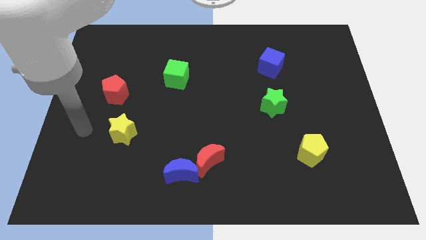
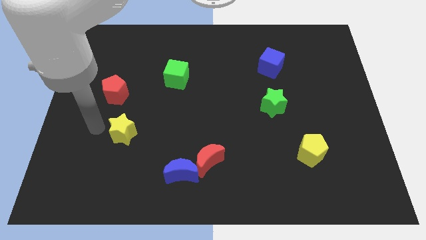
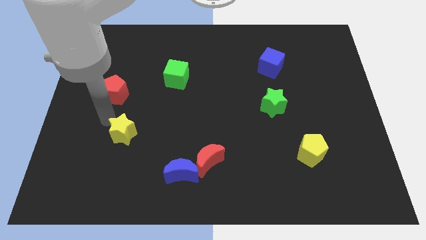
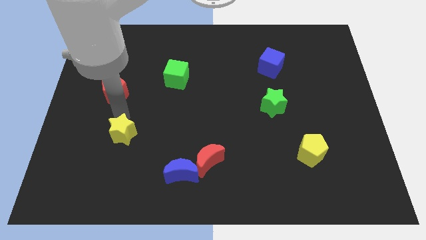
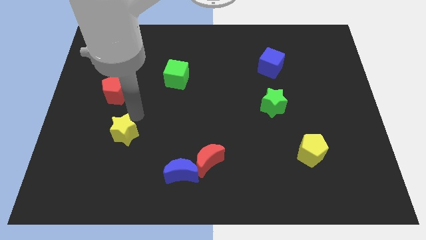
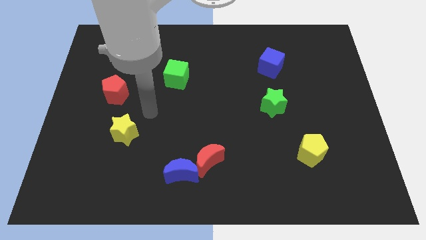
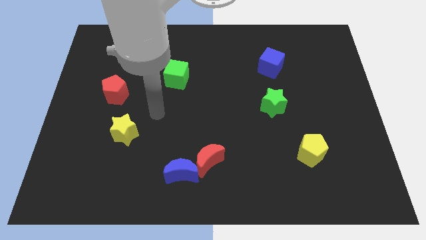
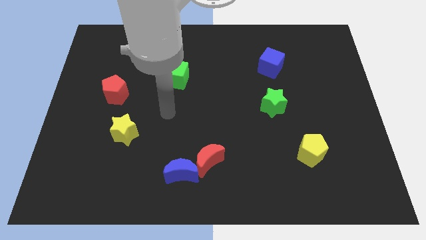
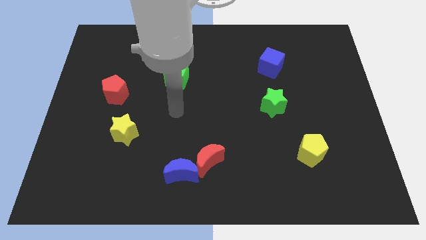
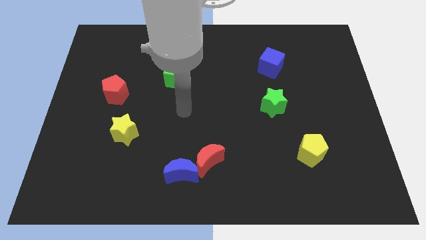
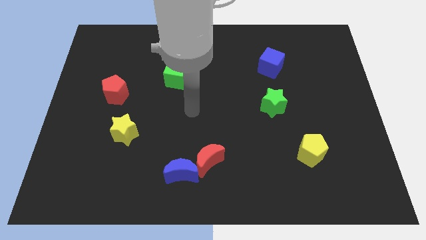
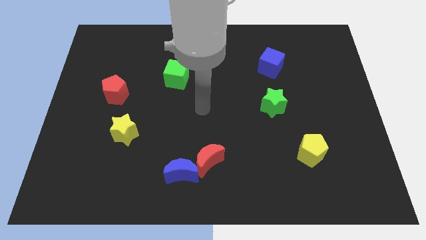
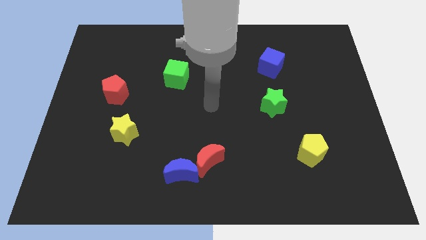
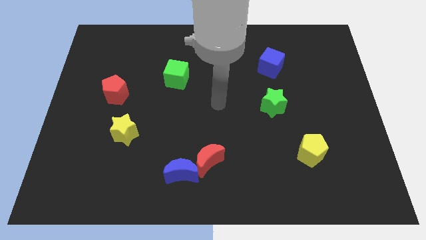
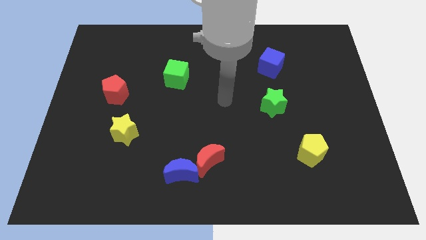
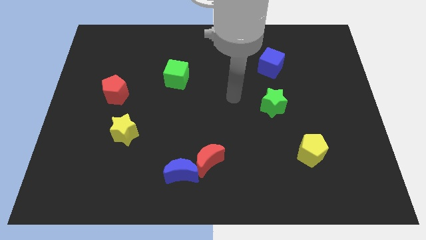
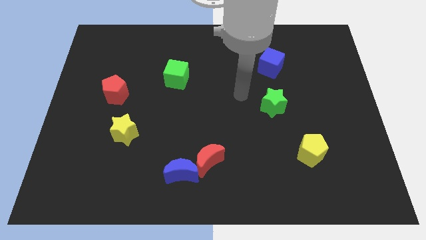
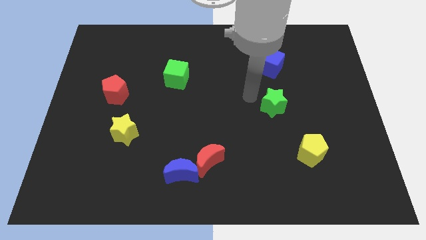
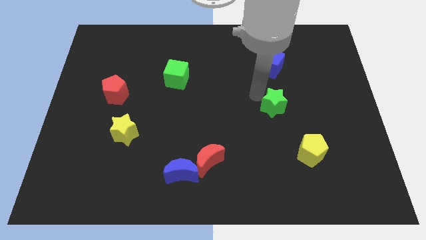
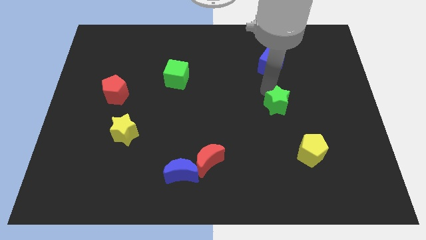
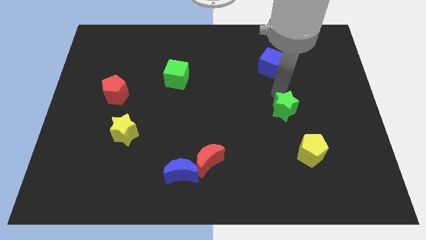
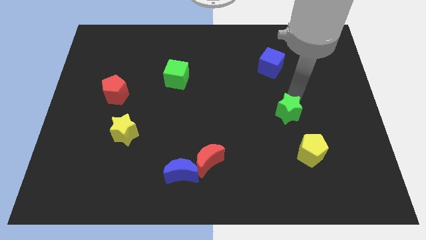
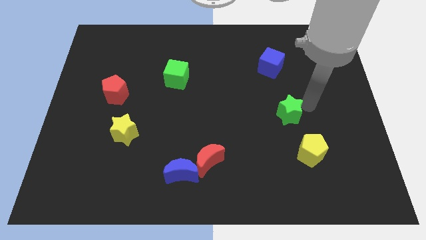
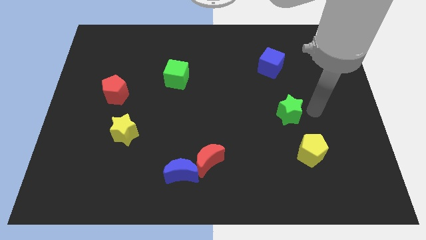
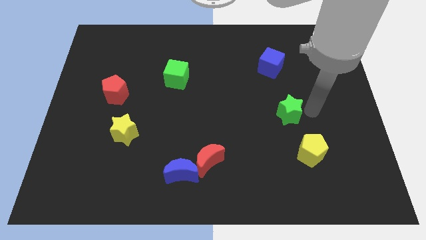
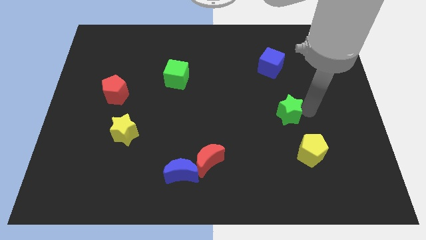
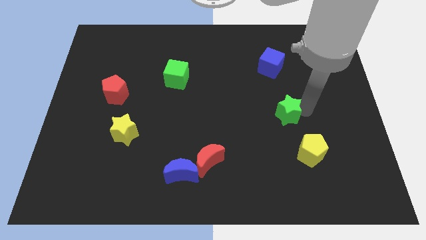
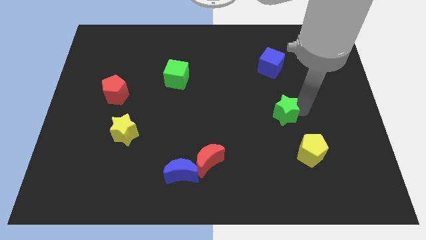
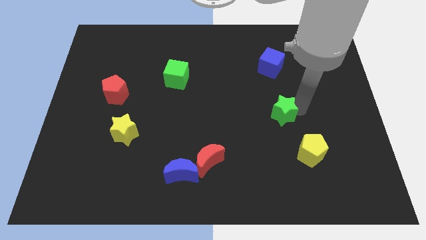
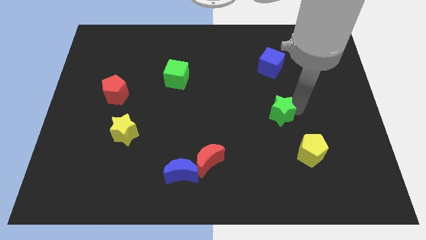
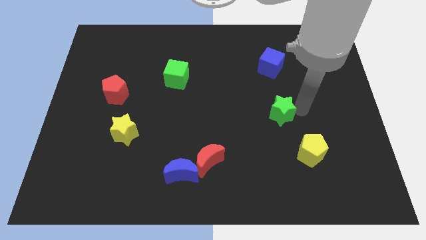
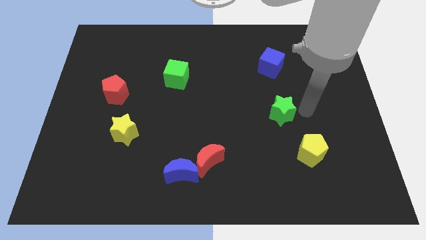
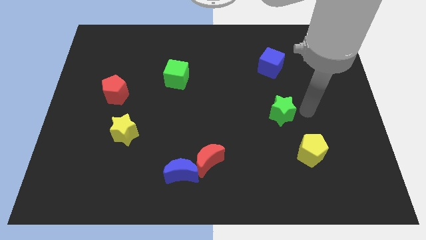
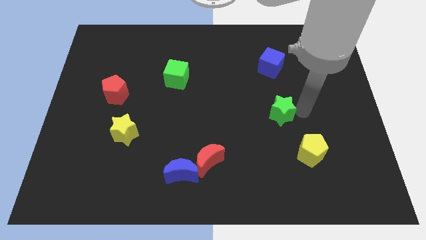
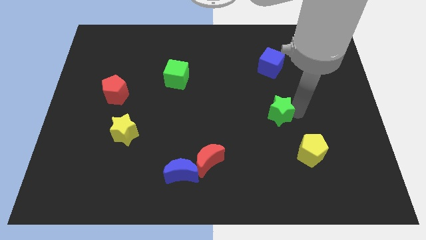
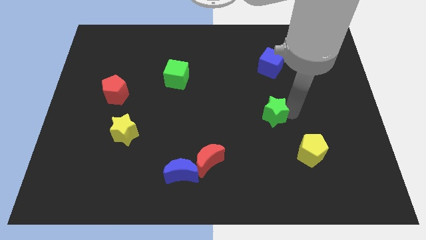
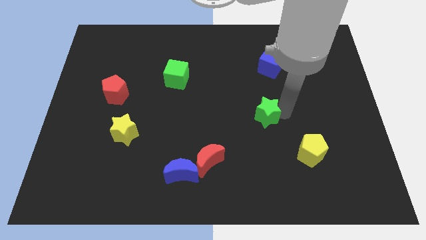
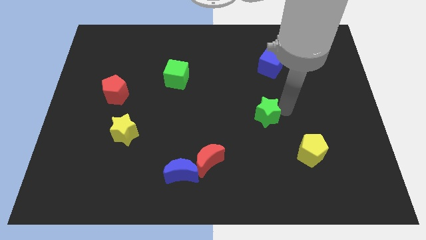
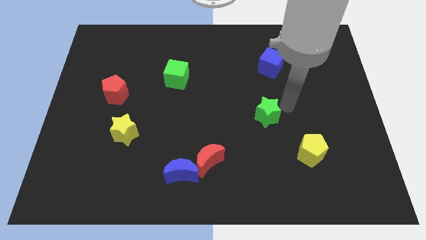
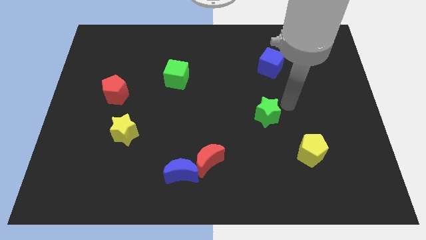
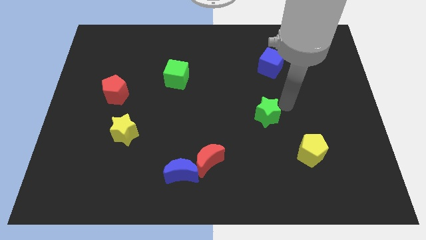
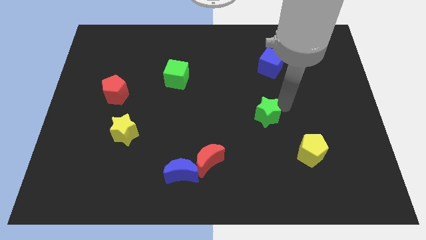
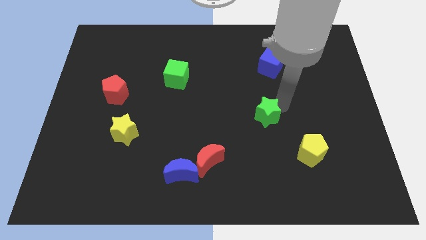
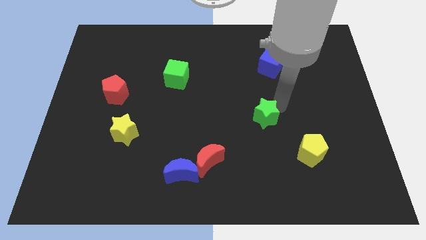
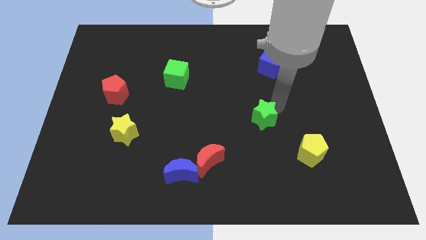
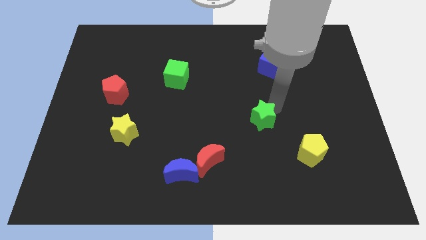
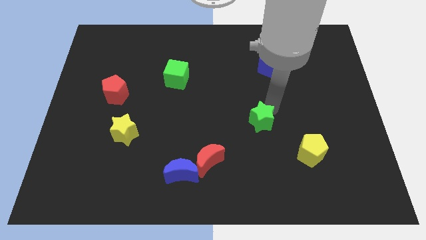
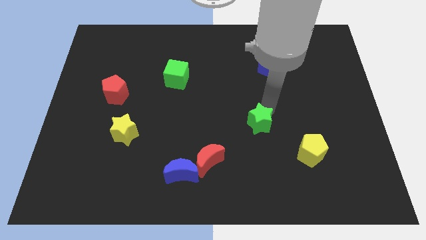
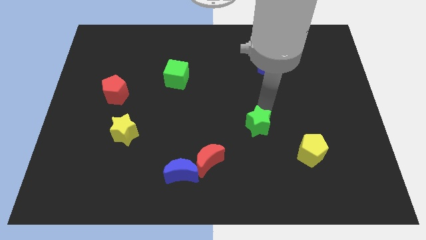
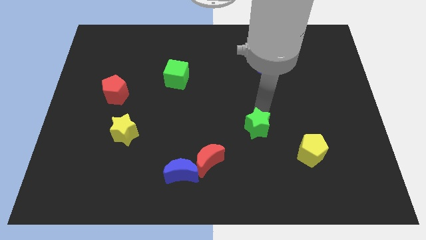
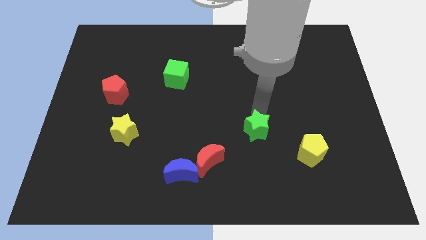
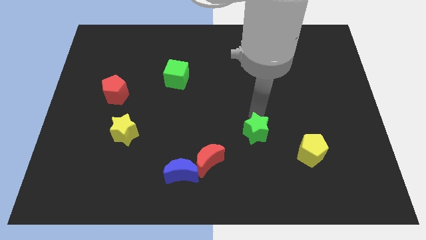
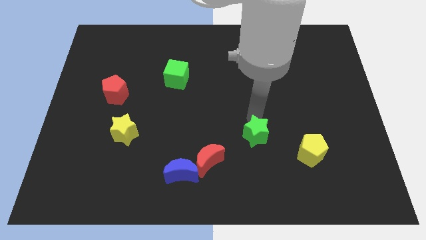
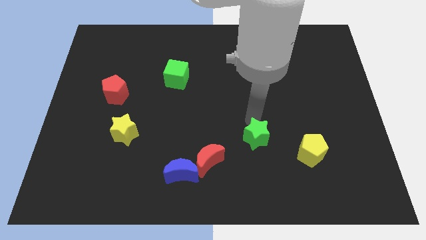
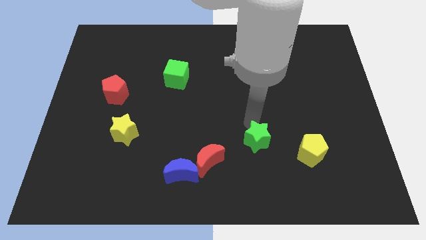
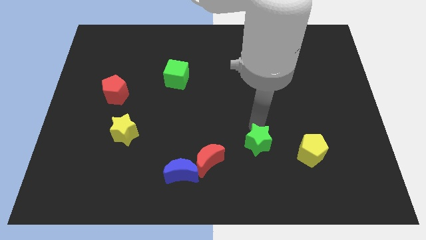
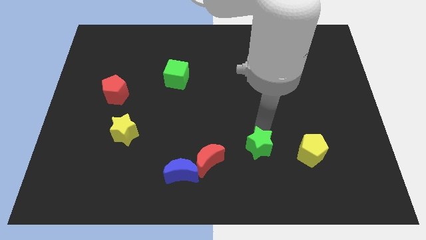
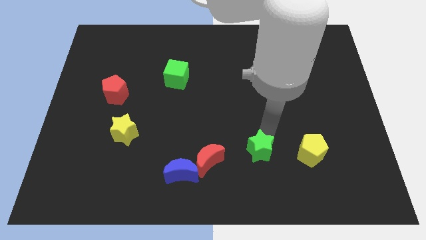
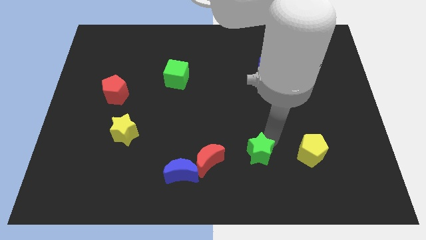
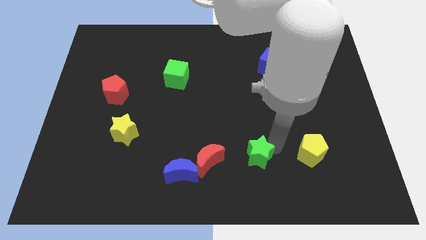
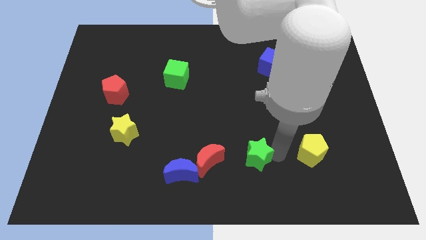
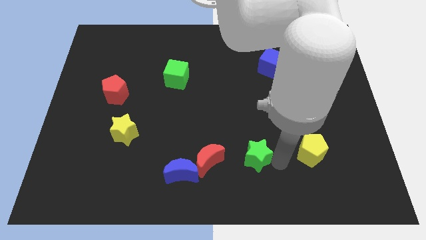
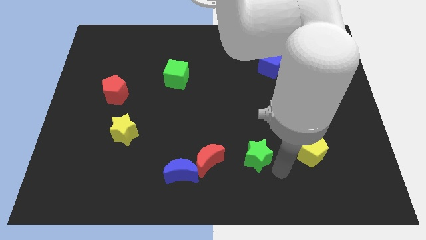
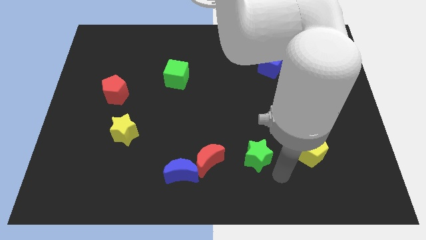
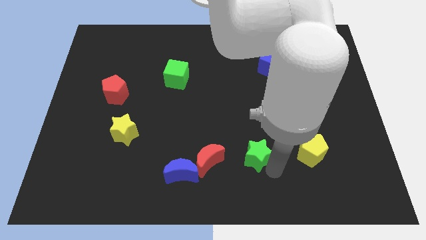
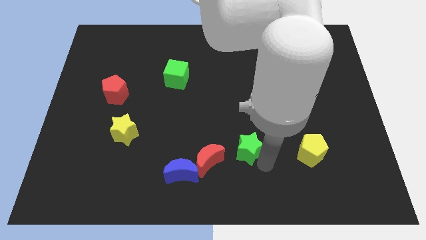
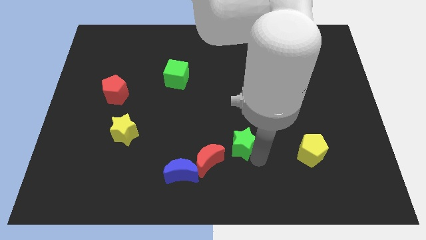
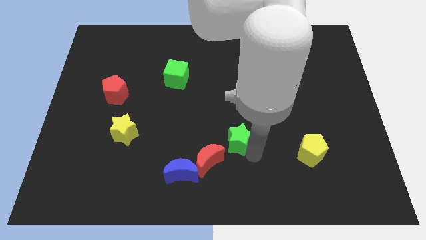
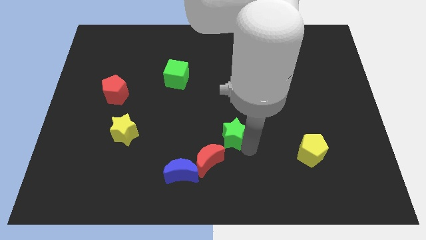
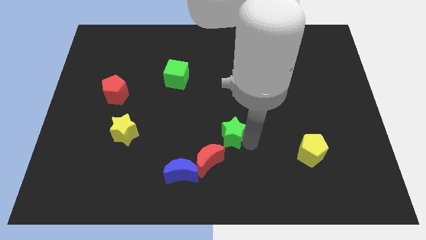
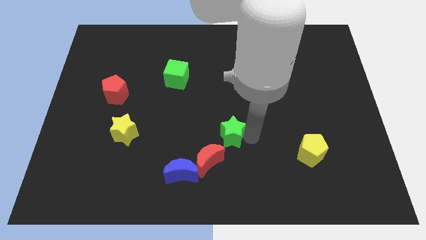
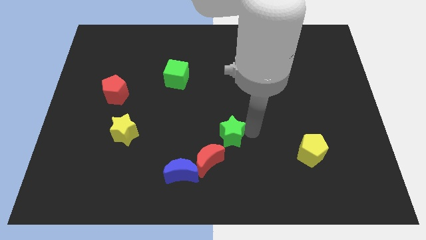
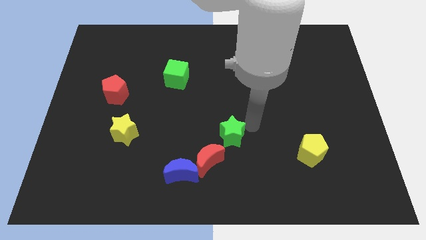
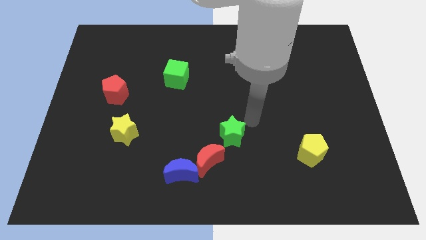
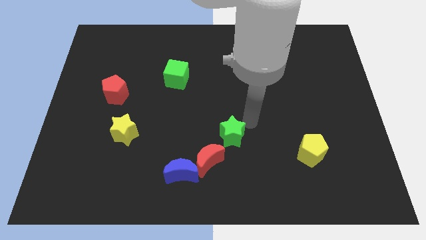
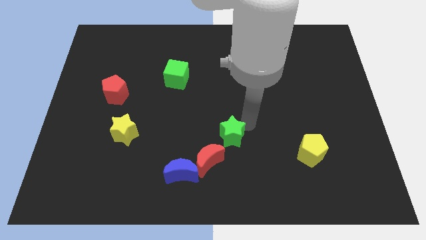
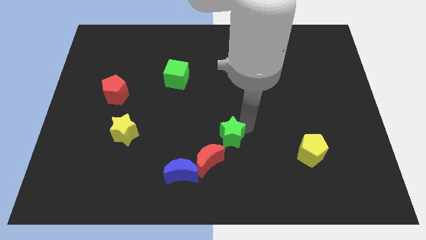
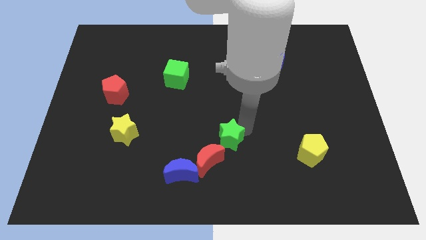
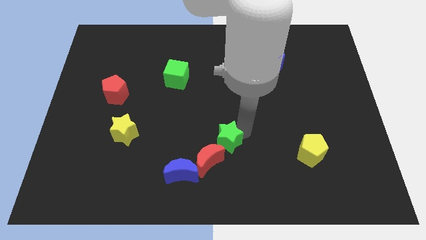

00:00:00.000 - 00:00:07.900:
slide the green star diagonally up and to the right of the blue moon
